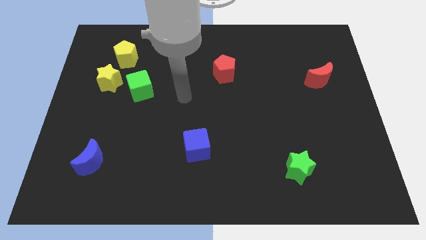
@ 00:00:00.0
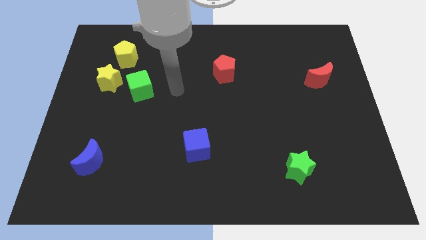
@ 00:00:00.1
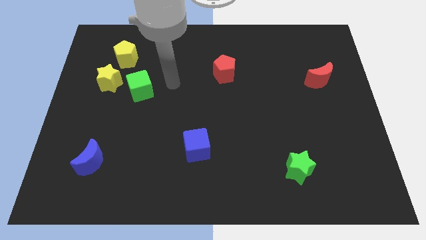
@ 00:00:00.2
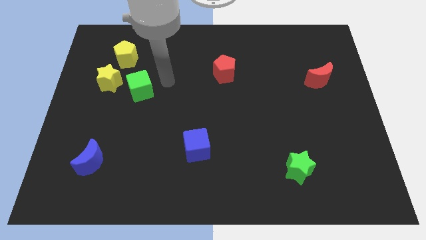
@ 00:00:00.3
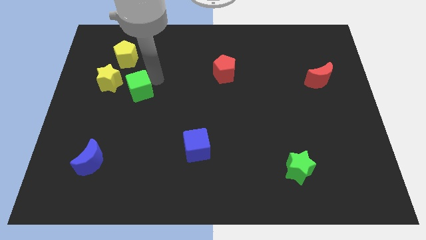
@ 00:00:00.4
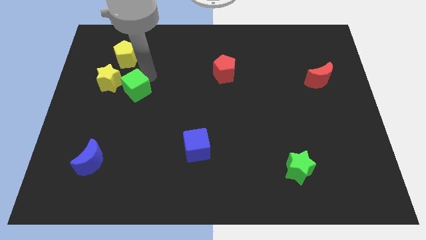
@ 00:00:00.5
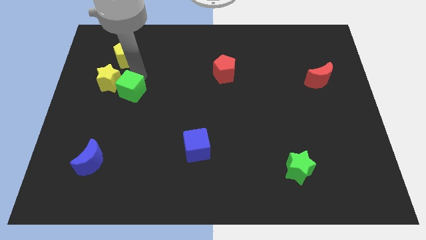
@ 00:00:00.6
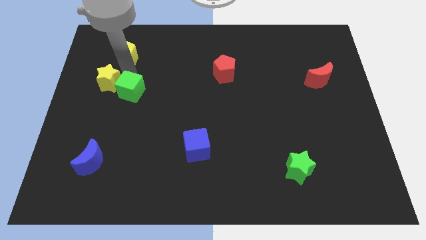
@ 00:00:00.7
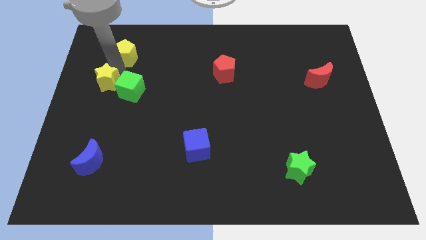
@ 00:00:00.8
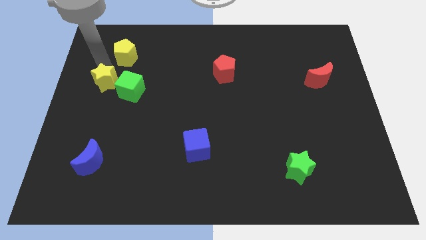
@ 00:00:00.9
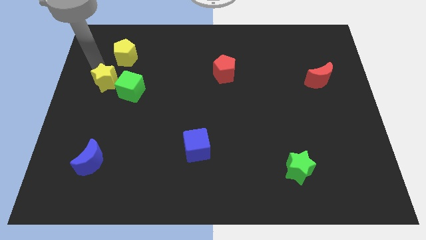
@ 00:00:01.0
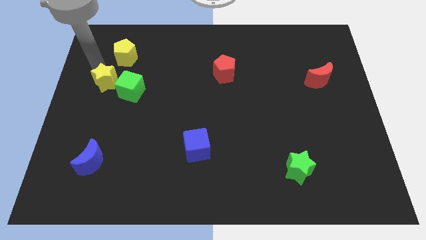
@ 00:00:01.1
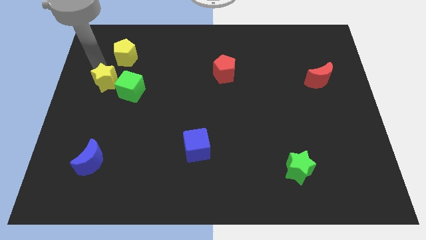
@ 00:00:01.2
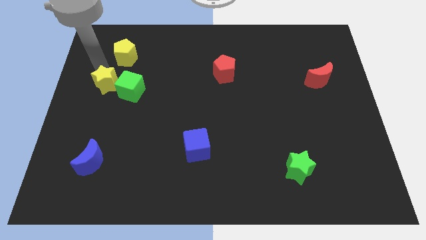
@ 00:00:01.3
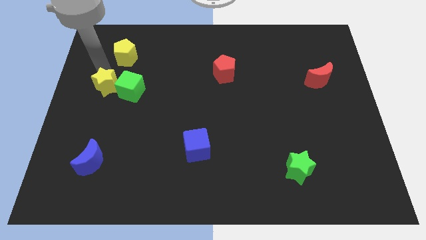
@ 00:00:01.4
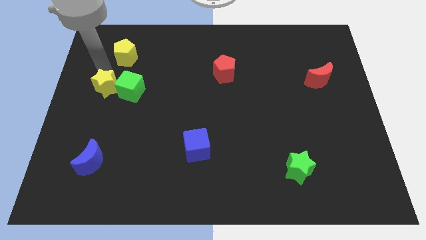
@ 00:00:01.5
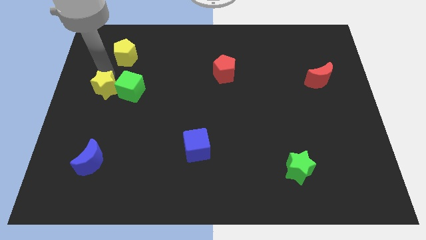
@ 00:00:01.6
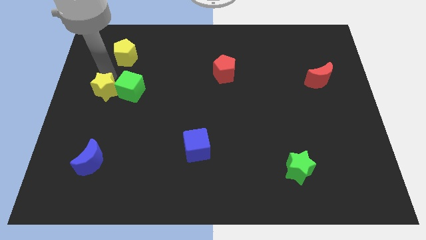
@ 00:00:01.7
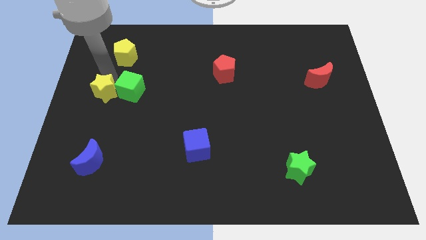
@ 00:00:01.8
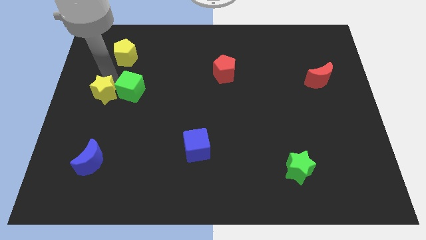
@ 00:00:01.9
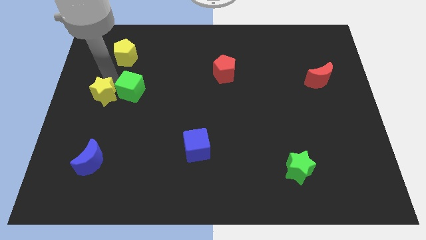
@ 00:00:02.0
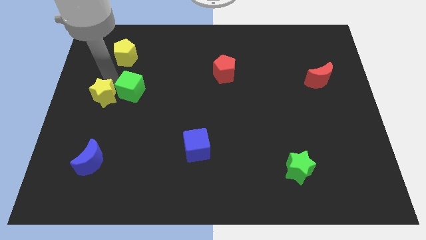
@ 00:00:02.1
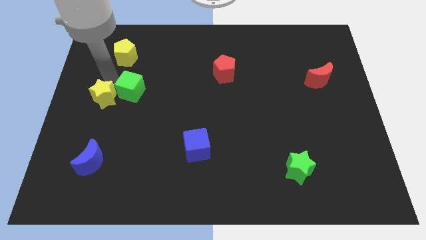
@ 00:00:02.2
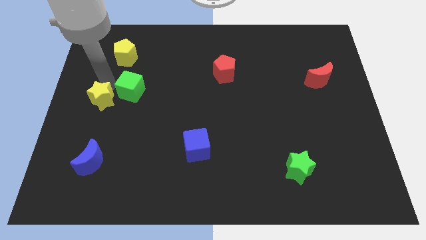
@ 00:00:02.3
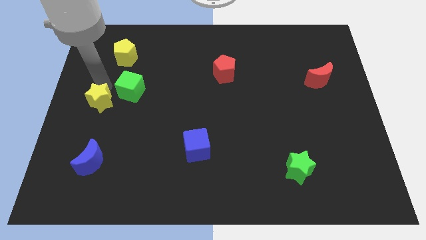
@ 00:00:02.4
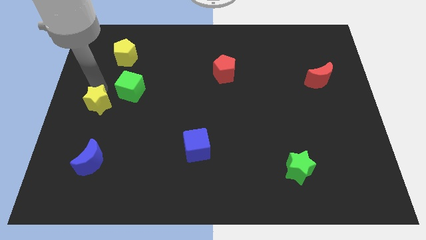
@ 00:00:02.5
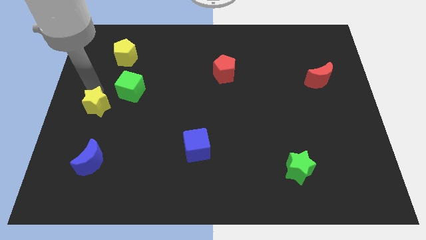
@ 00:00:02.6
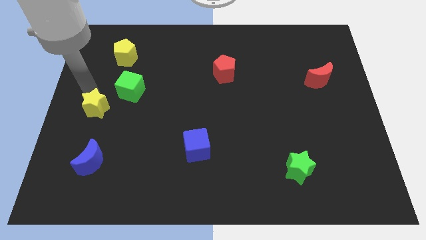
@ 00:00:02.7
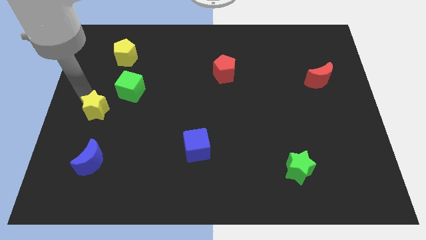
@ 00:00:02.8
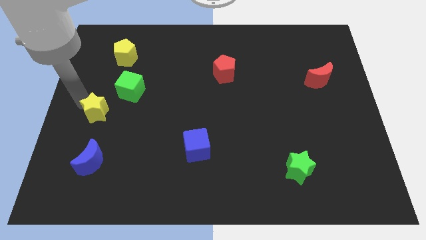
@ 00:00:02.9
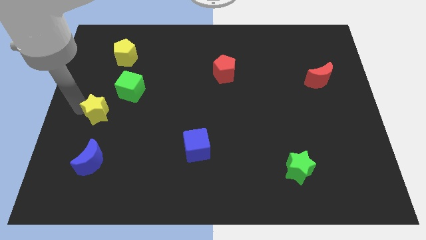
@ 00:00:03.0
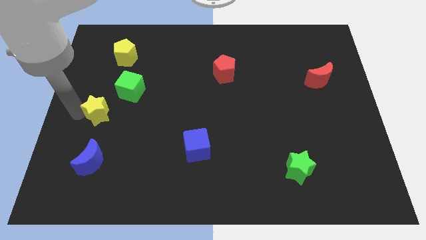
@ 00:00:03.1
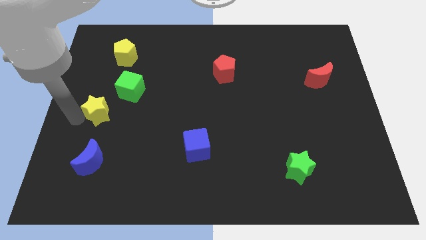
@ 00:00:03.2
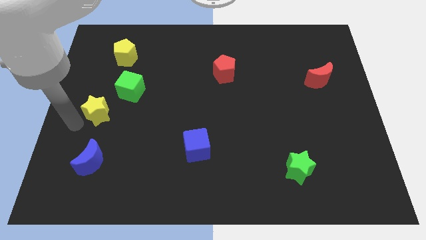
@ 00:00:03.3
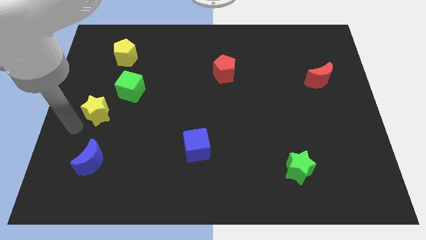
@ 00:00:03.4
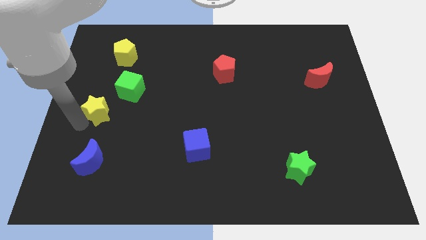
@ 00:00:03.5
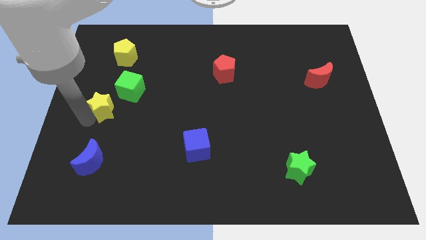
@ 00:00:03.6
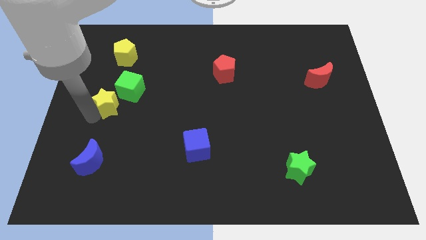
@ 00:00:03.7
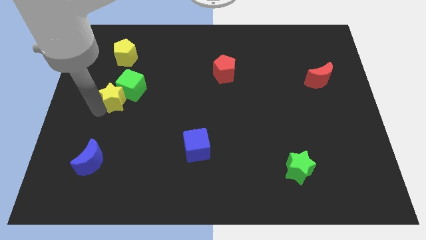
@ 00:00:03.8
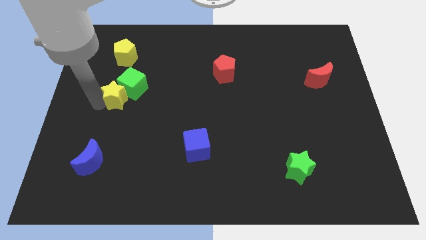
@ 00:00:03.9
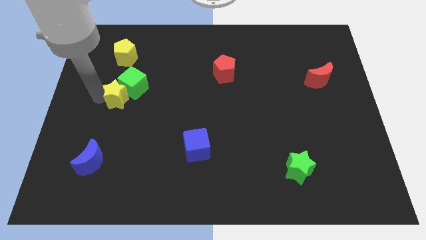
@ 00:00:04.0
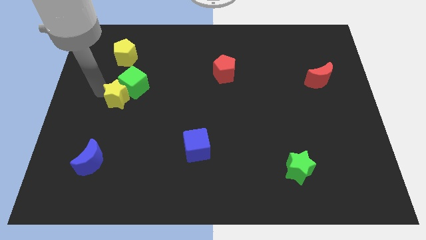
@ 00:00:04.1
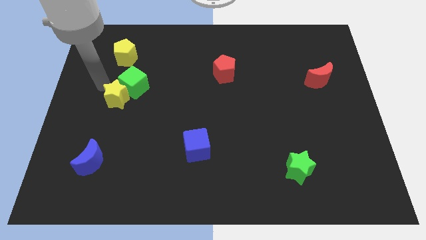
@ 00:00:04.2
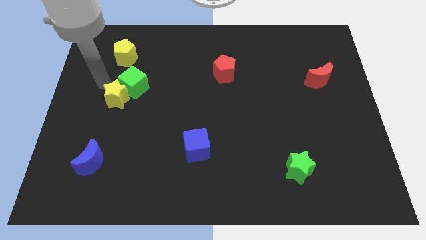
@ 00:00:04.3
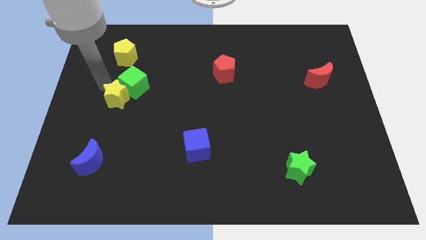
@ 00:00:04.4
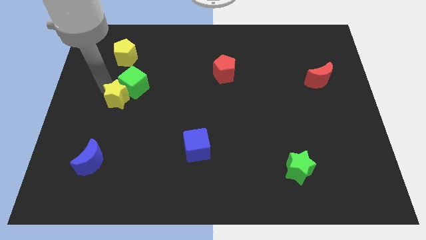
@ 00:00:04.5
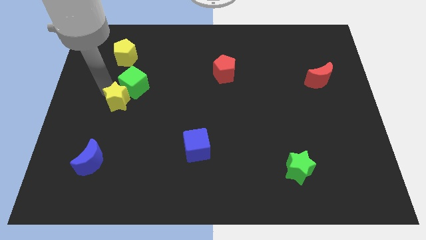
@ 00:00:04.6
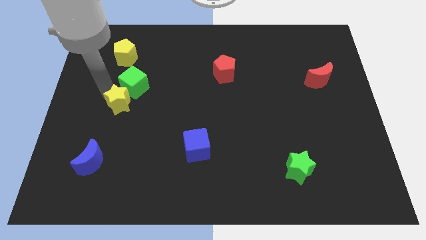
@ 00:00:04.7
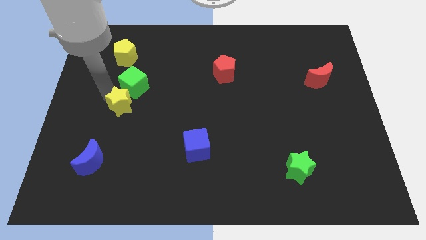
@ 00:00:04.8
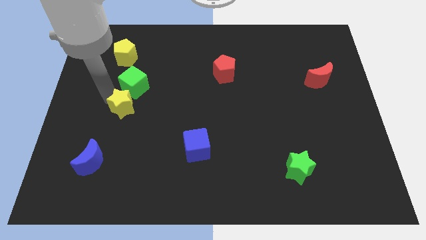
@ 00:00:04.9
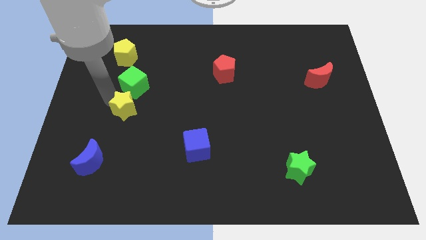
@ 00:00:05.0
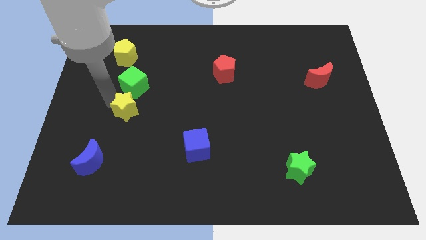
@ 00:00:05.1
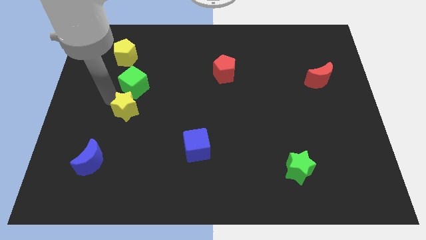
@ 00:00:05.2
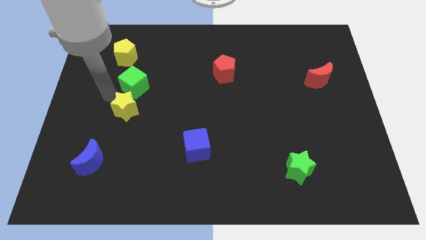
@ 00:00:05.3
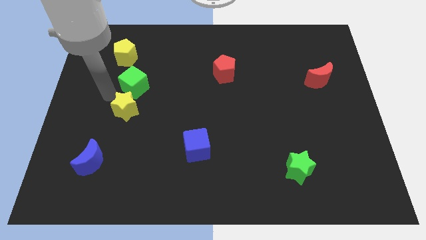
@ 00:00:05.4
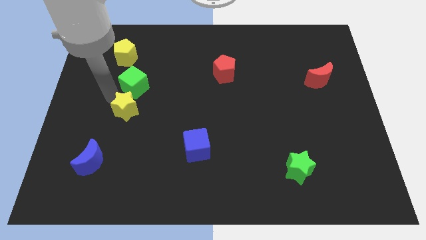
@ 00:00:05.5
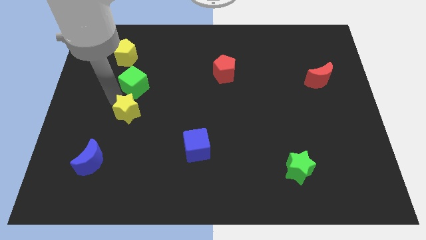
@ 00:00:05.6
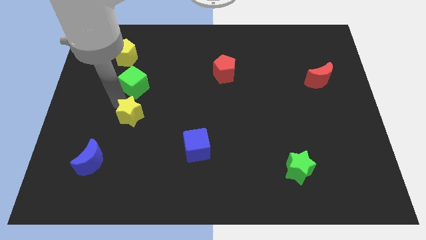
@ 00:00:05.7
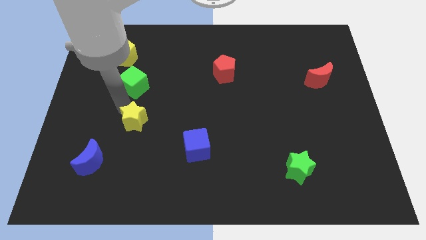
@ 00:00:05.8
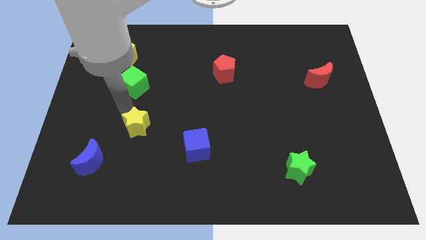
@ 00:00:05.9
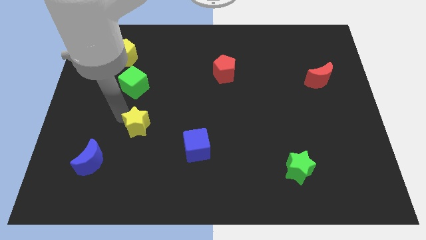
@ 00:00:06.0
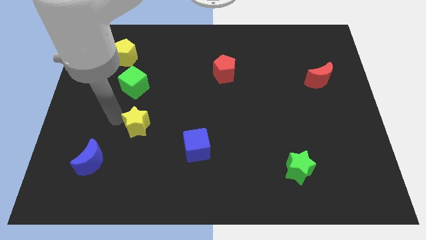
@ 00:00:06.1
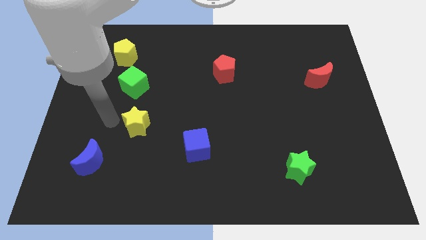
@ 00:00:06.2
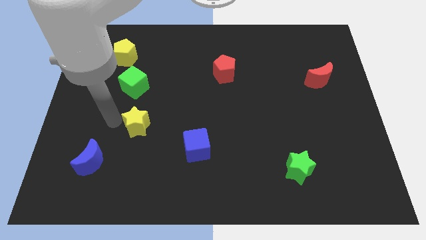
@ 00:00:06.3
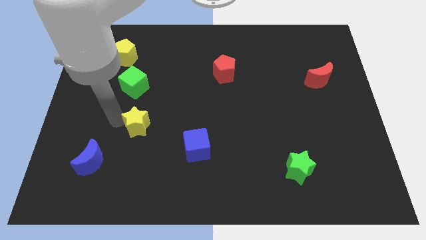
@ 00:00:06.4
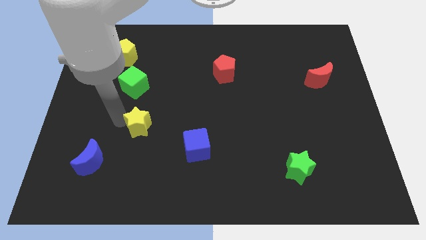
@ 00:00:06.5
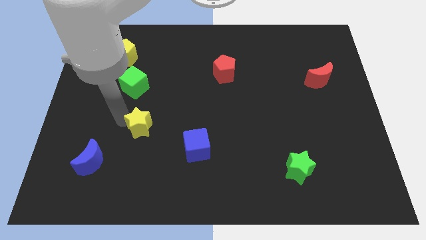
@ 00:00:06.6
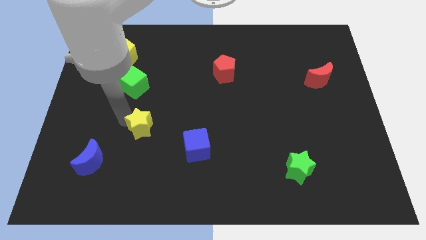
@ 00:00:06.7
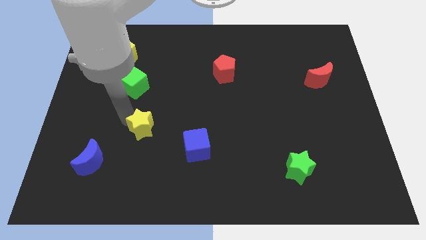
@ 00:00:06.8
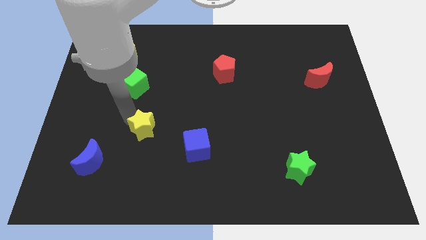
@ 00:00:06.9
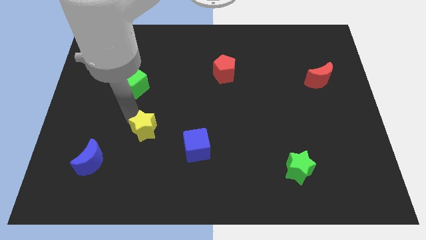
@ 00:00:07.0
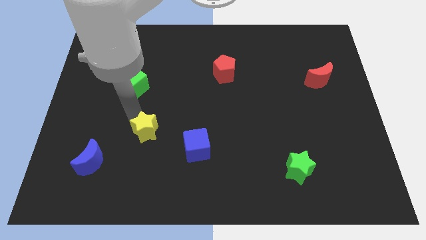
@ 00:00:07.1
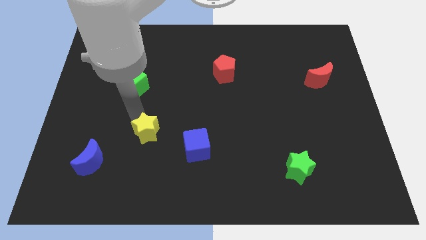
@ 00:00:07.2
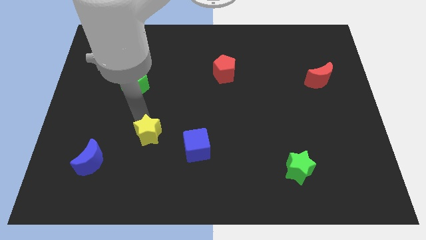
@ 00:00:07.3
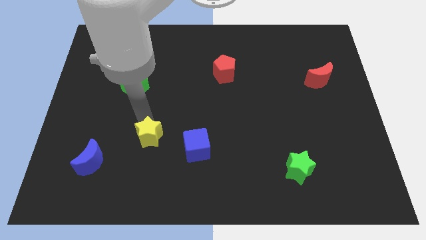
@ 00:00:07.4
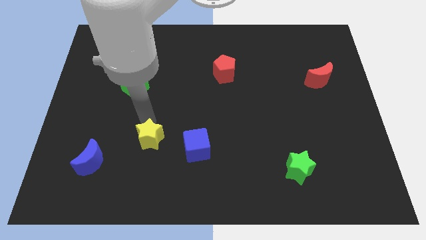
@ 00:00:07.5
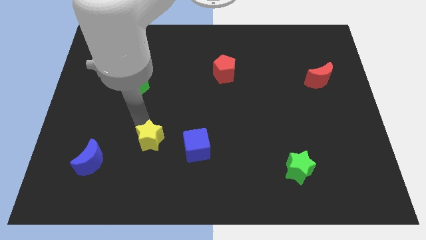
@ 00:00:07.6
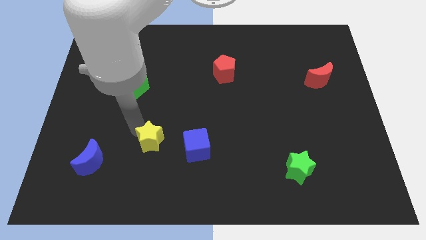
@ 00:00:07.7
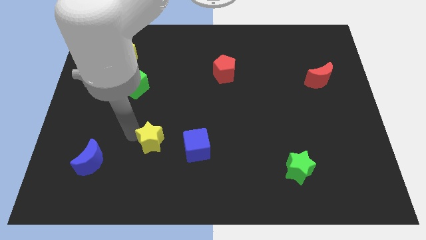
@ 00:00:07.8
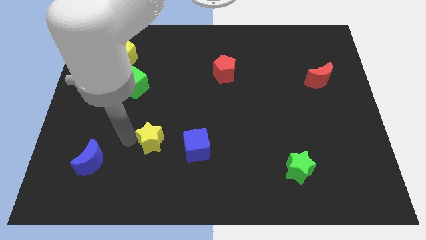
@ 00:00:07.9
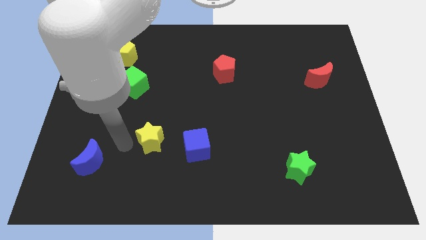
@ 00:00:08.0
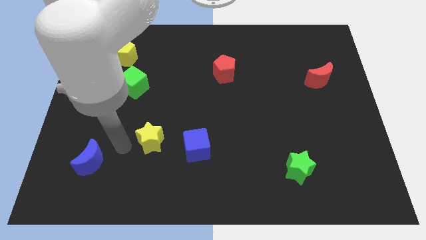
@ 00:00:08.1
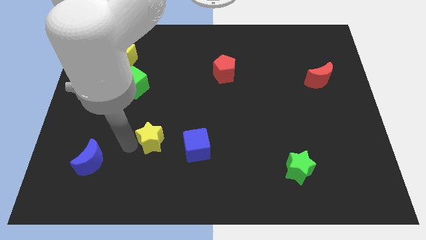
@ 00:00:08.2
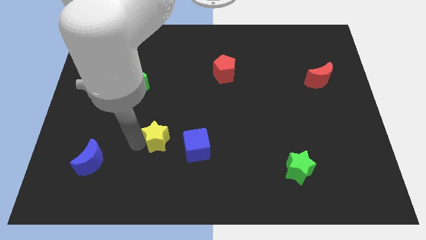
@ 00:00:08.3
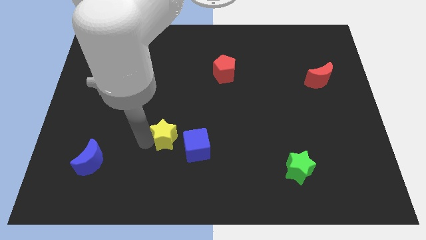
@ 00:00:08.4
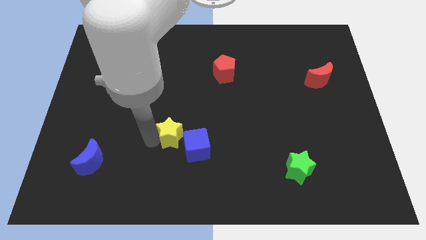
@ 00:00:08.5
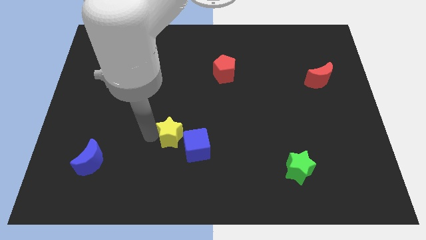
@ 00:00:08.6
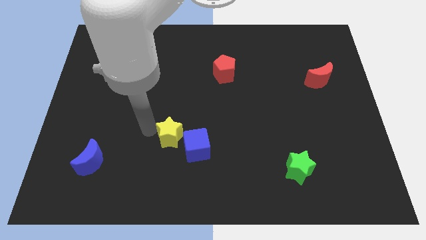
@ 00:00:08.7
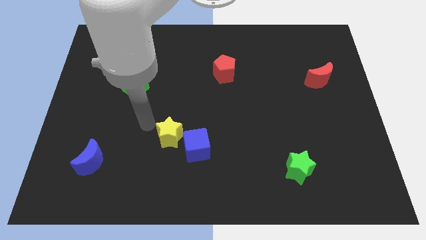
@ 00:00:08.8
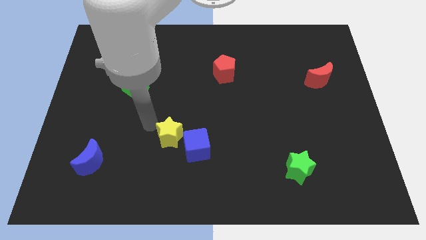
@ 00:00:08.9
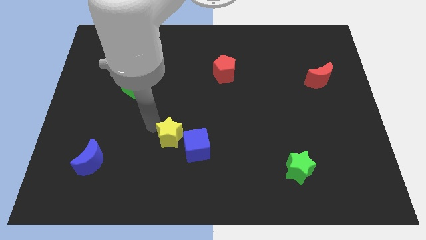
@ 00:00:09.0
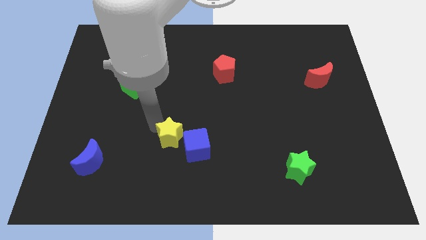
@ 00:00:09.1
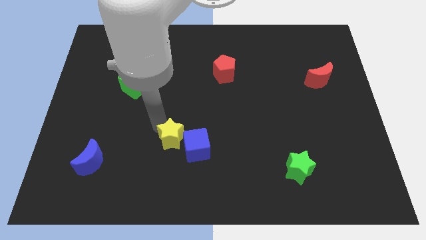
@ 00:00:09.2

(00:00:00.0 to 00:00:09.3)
move the yellow star to the blue cube
